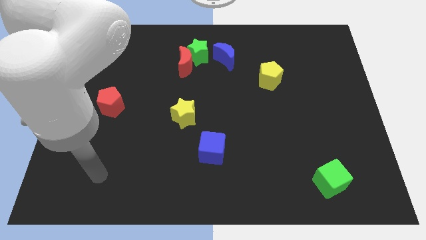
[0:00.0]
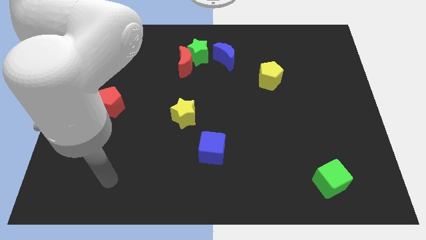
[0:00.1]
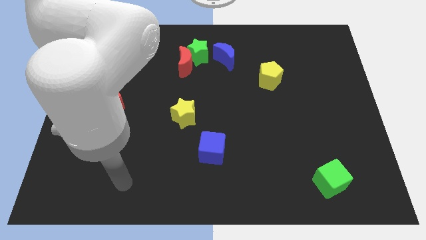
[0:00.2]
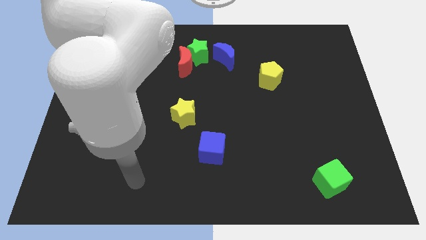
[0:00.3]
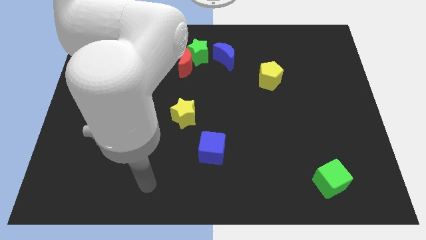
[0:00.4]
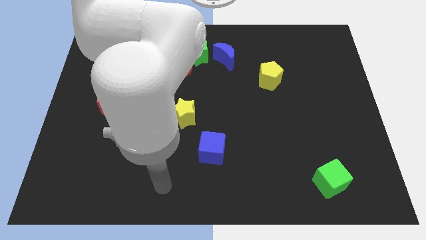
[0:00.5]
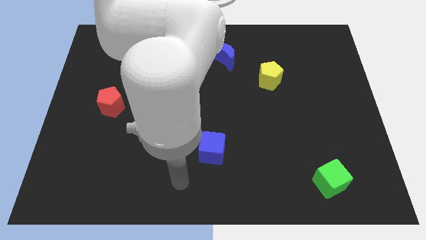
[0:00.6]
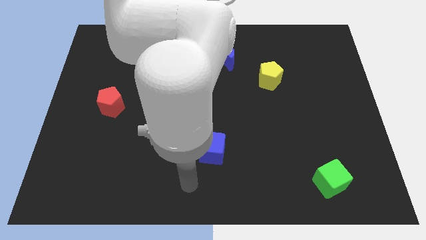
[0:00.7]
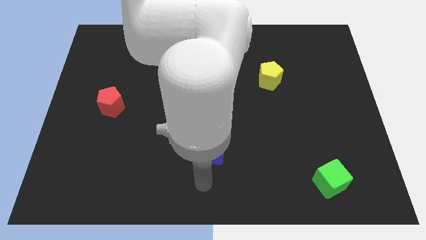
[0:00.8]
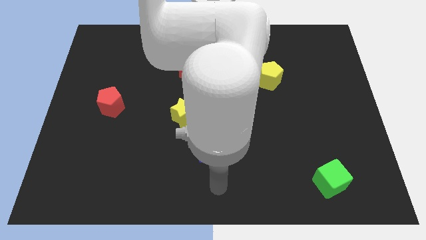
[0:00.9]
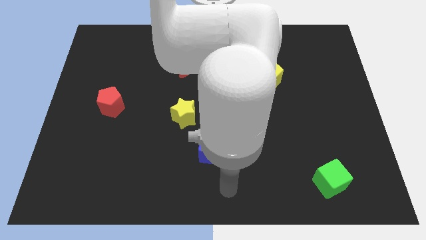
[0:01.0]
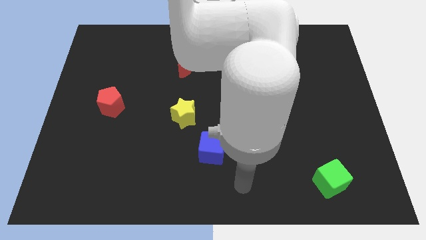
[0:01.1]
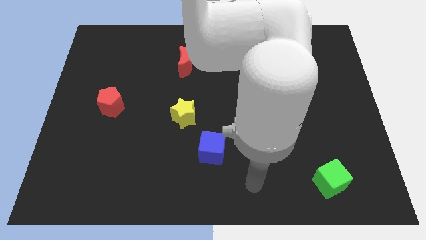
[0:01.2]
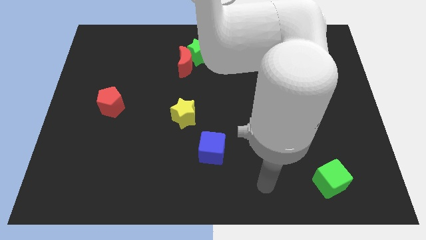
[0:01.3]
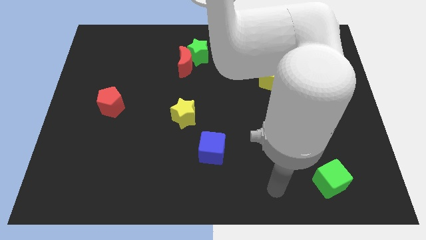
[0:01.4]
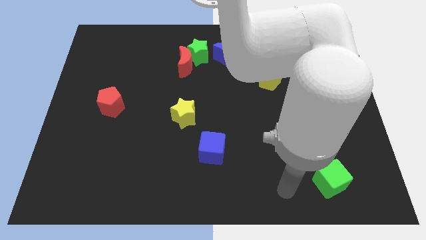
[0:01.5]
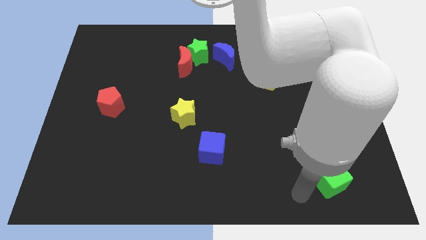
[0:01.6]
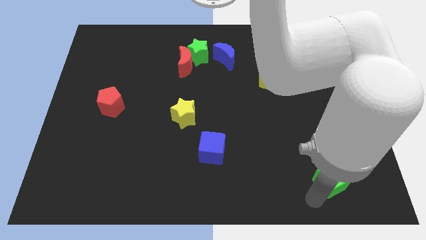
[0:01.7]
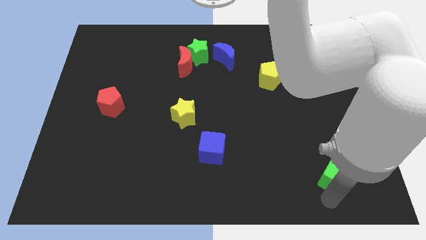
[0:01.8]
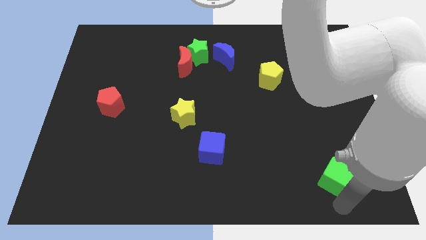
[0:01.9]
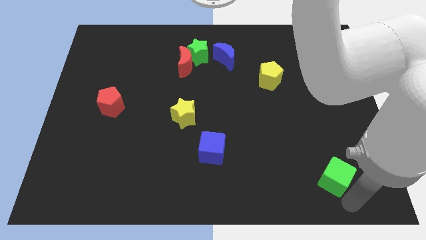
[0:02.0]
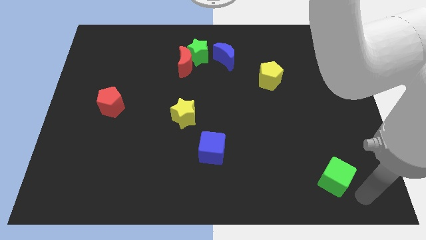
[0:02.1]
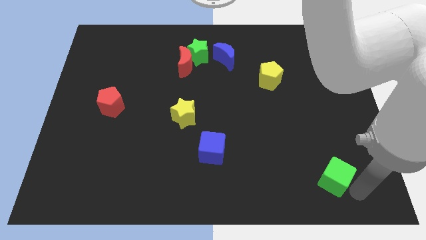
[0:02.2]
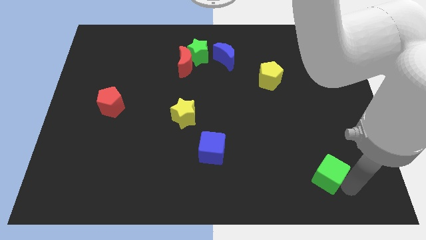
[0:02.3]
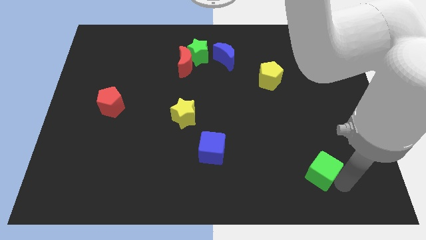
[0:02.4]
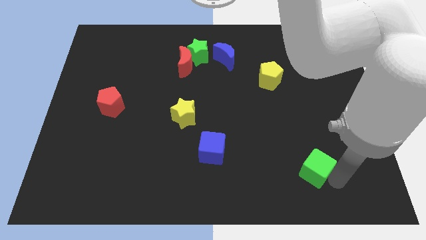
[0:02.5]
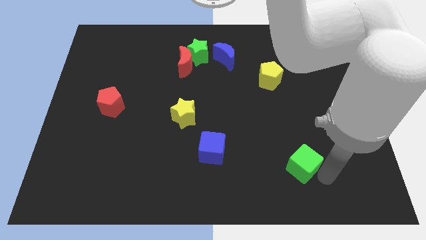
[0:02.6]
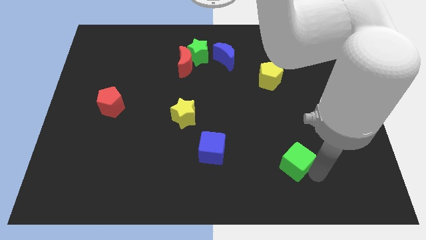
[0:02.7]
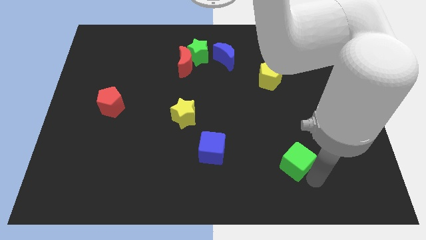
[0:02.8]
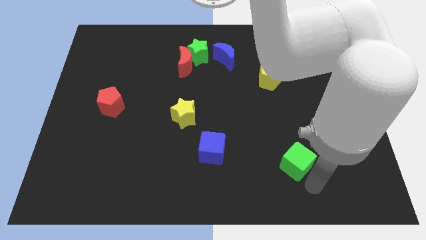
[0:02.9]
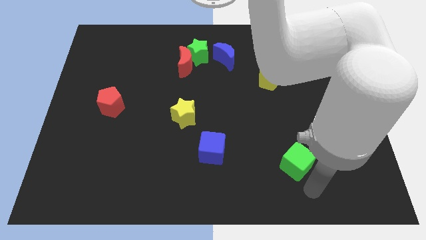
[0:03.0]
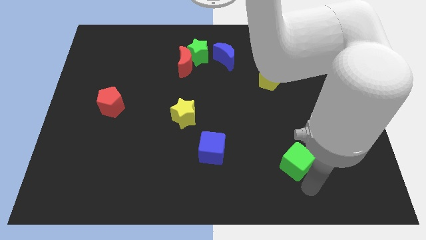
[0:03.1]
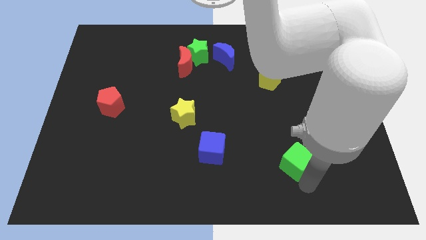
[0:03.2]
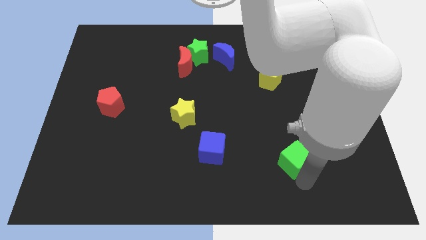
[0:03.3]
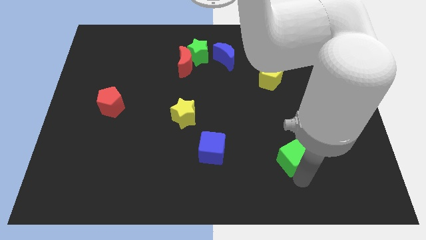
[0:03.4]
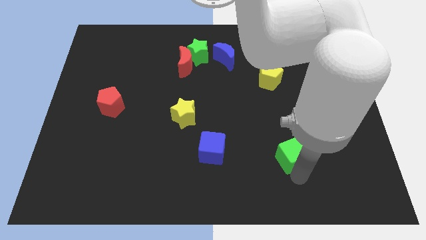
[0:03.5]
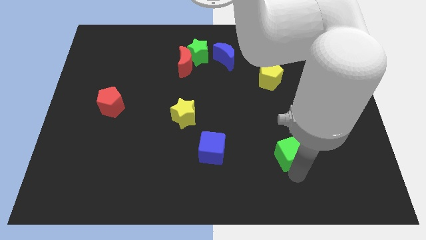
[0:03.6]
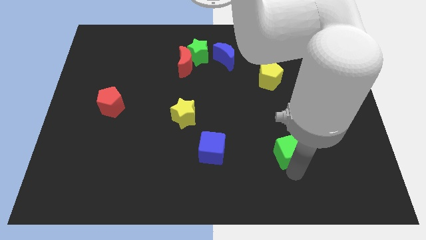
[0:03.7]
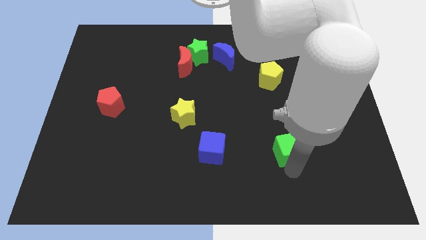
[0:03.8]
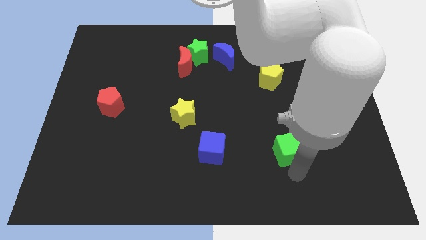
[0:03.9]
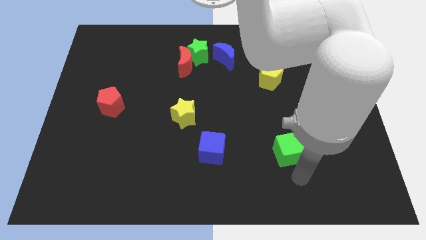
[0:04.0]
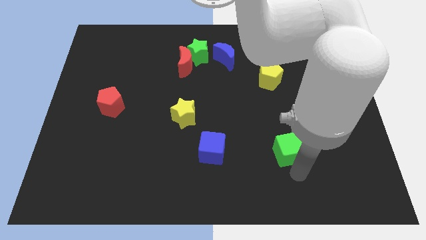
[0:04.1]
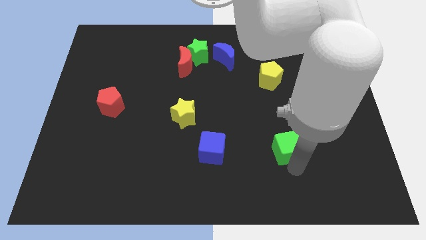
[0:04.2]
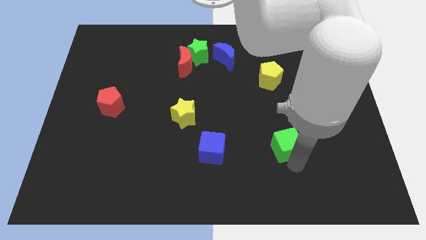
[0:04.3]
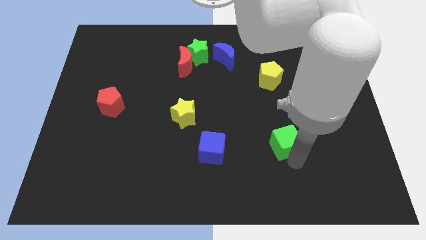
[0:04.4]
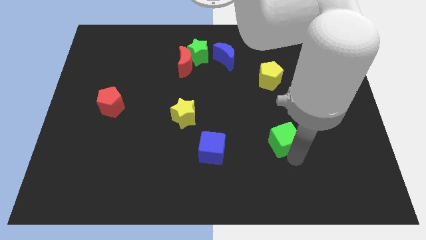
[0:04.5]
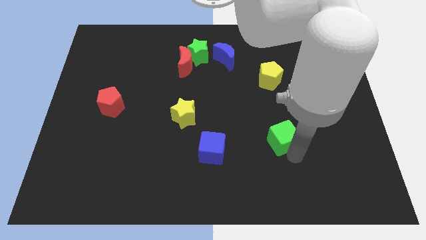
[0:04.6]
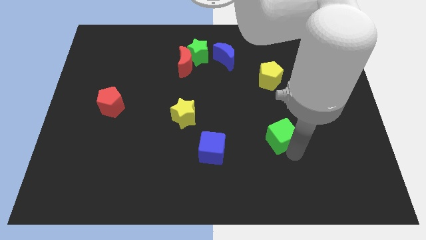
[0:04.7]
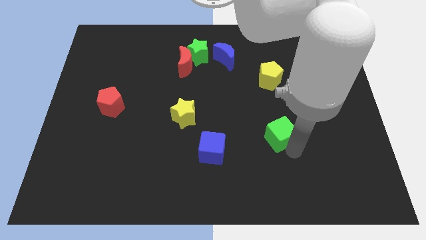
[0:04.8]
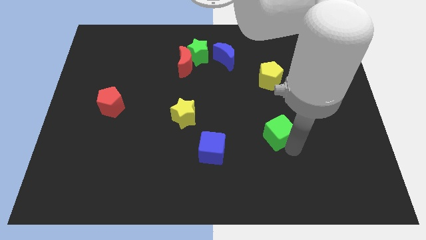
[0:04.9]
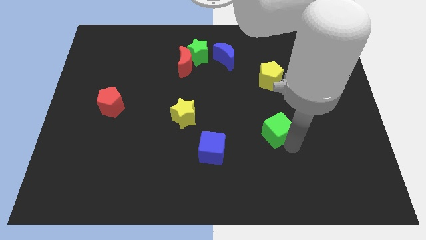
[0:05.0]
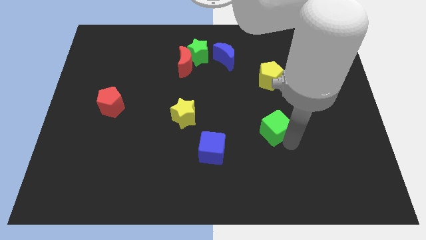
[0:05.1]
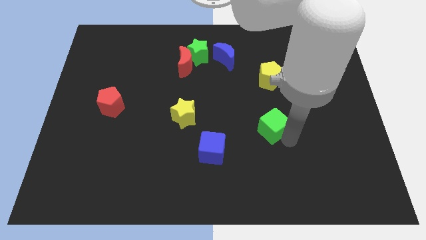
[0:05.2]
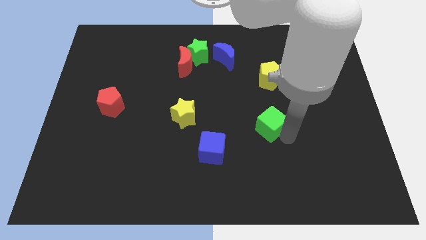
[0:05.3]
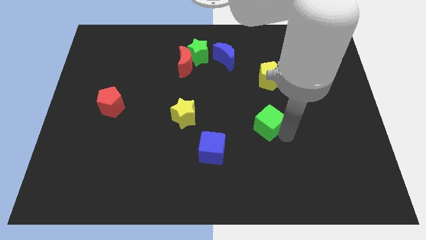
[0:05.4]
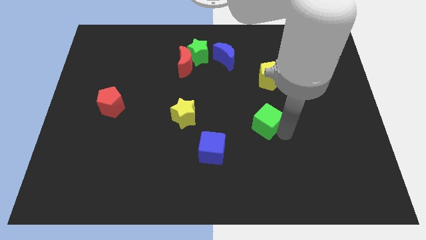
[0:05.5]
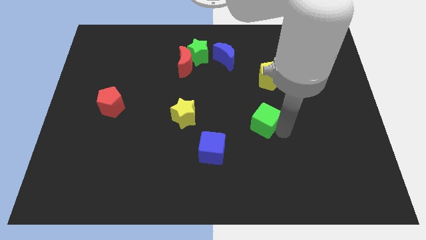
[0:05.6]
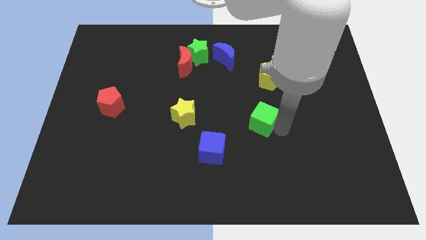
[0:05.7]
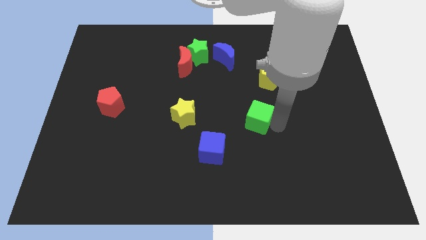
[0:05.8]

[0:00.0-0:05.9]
slide the green cube up and to the left diagonally

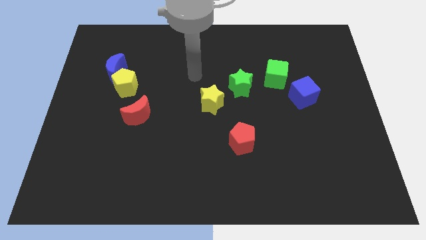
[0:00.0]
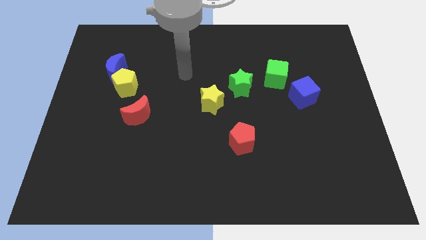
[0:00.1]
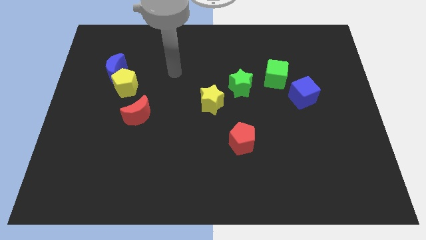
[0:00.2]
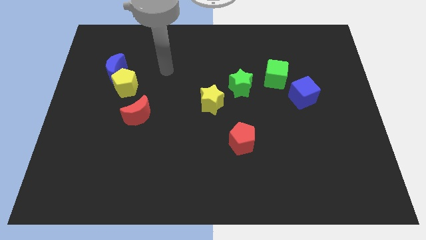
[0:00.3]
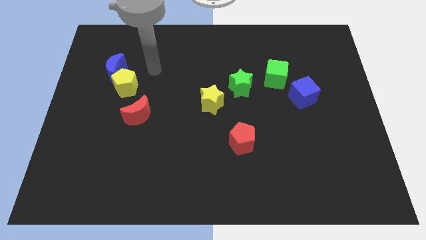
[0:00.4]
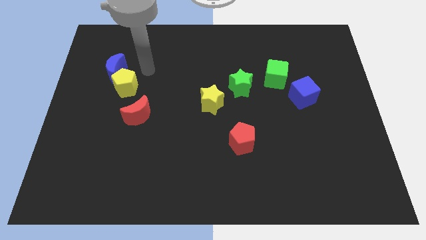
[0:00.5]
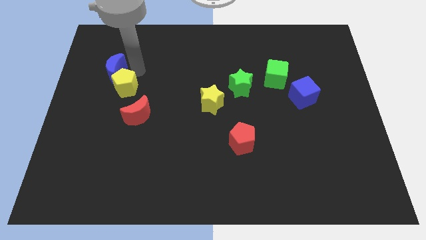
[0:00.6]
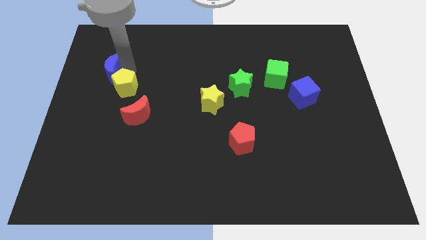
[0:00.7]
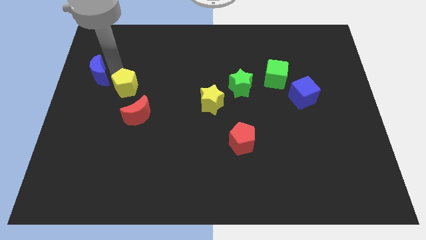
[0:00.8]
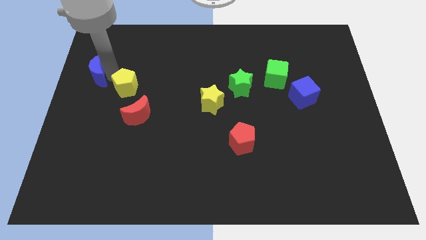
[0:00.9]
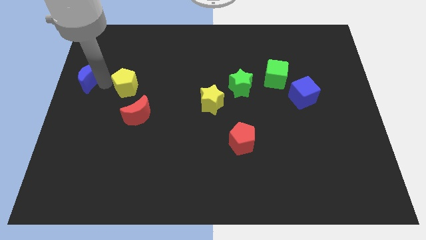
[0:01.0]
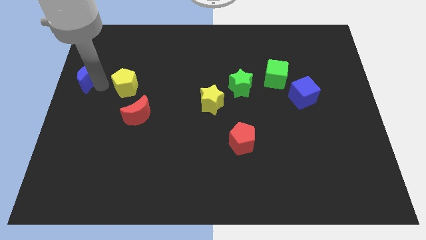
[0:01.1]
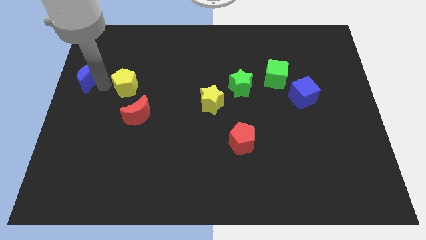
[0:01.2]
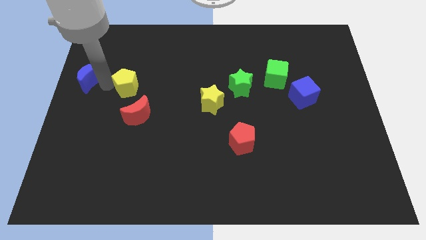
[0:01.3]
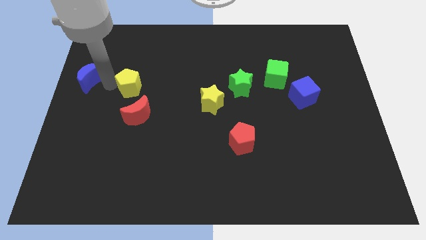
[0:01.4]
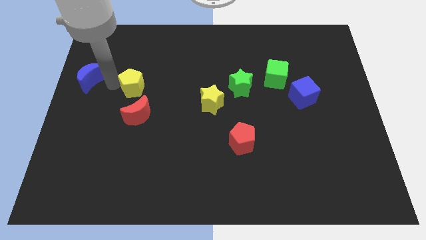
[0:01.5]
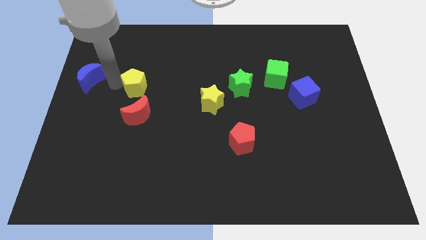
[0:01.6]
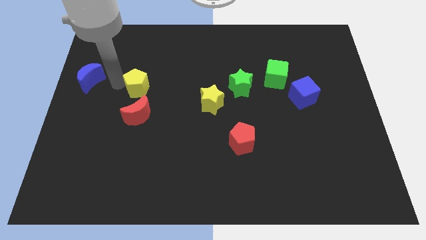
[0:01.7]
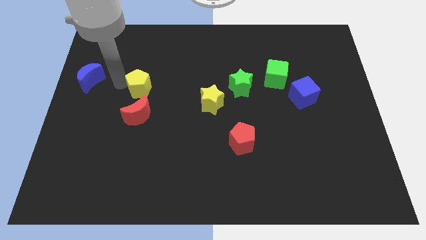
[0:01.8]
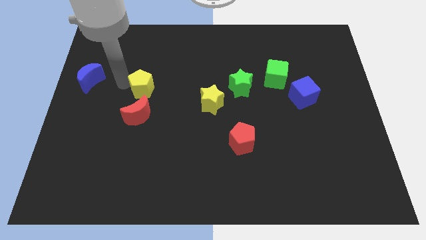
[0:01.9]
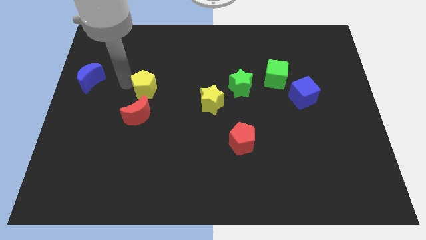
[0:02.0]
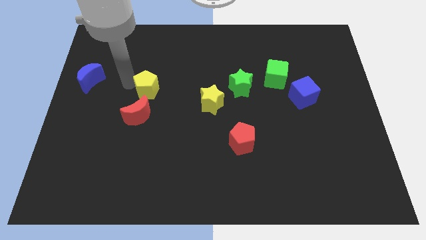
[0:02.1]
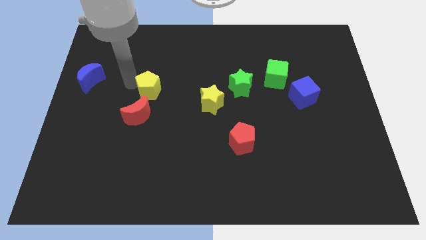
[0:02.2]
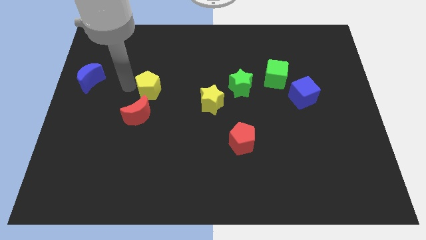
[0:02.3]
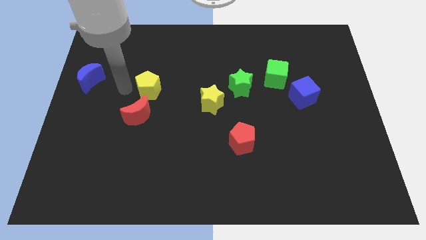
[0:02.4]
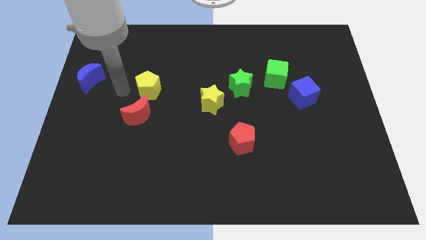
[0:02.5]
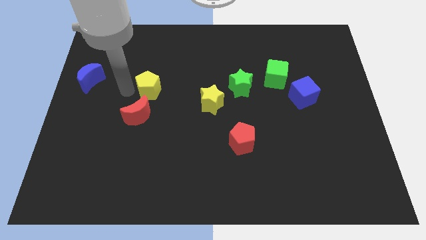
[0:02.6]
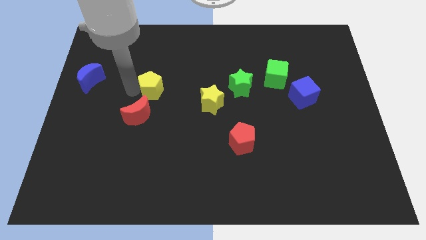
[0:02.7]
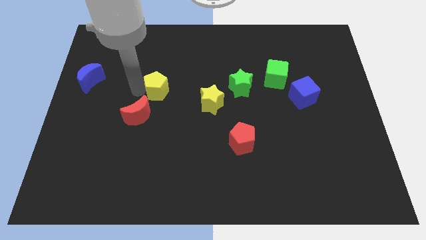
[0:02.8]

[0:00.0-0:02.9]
slightly push the yellow pentagon to the right
